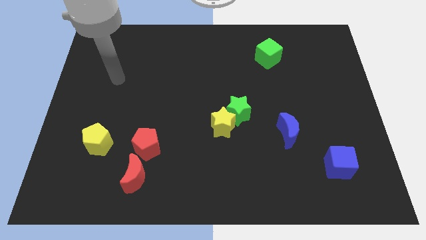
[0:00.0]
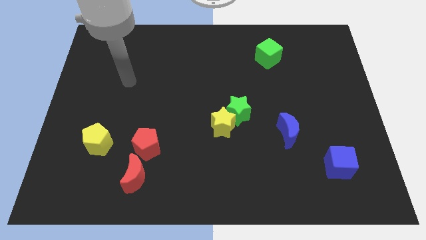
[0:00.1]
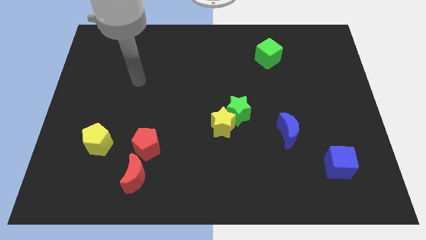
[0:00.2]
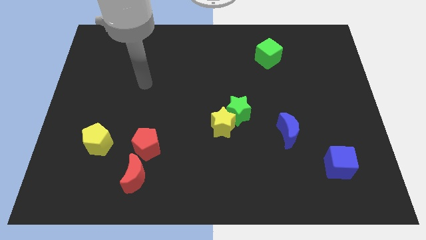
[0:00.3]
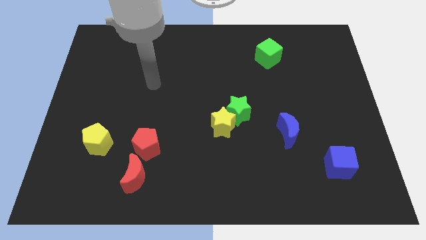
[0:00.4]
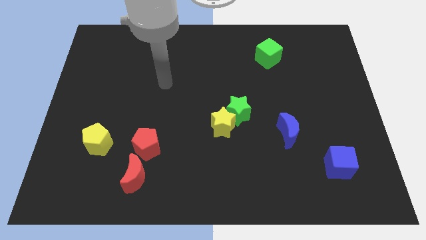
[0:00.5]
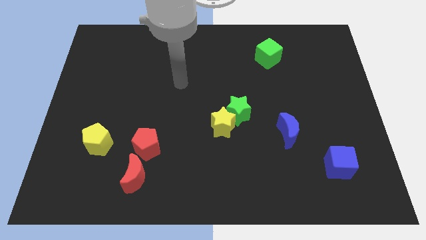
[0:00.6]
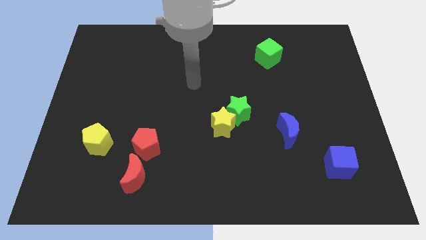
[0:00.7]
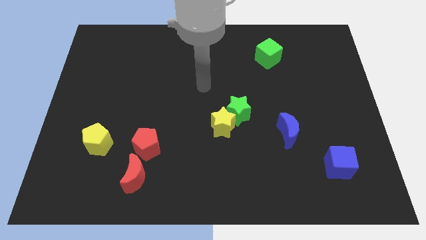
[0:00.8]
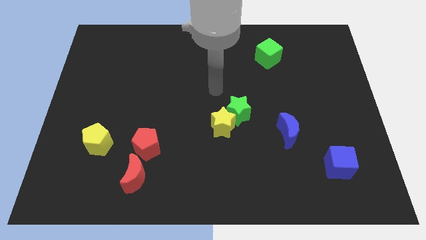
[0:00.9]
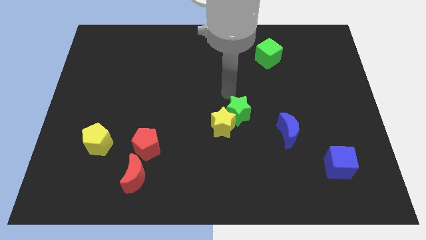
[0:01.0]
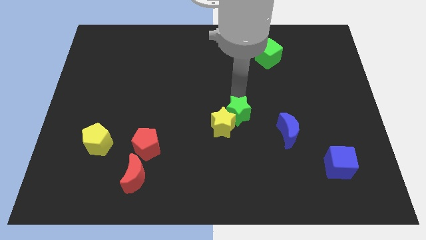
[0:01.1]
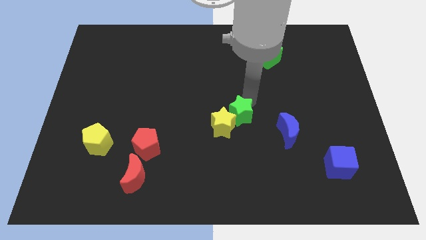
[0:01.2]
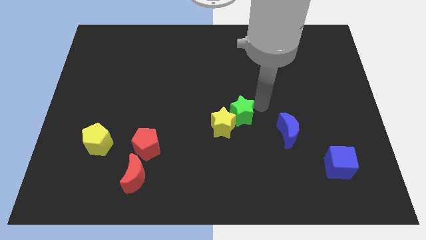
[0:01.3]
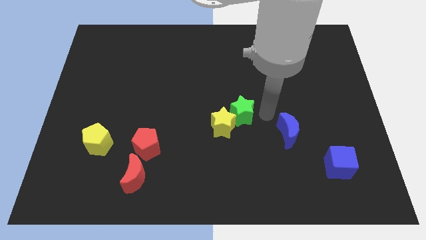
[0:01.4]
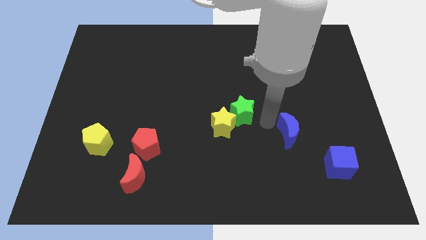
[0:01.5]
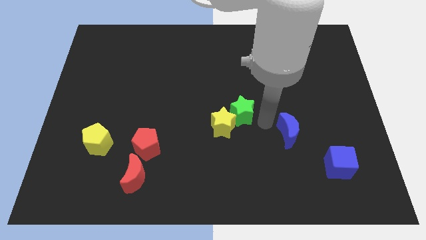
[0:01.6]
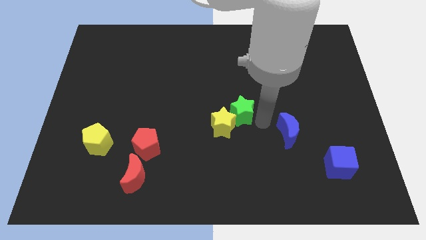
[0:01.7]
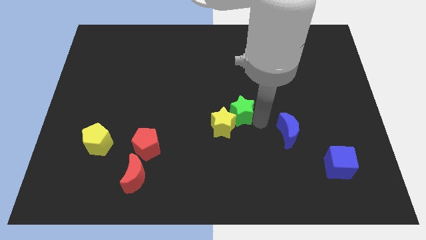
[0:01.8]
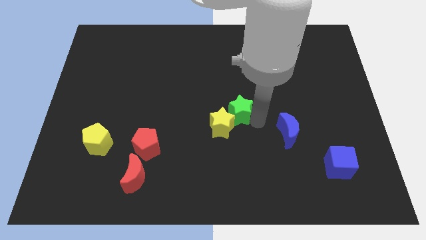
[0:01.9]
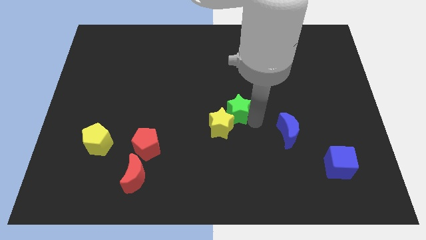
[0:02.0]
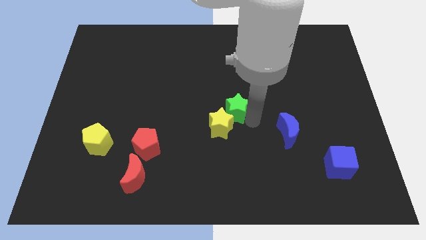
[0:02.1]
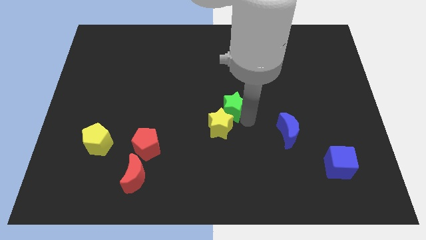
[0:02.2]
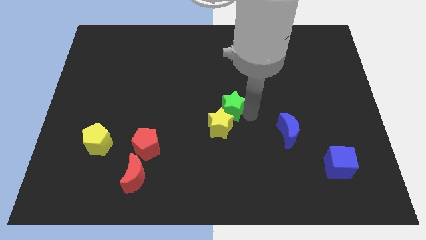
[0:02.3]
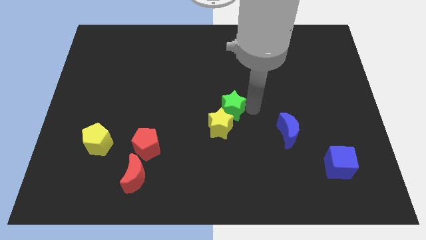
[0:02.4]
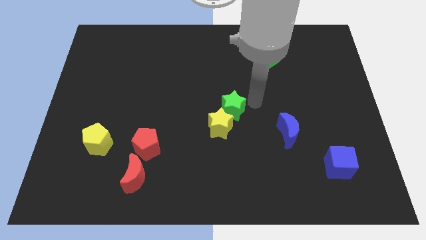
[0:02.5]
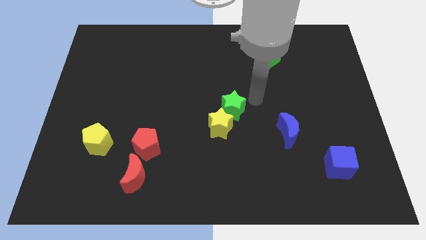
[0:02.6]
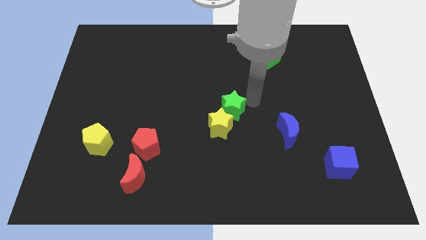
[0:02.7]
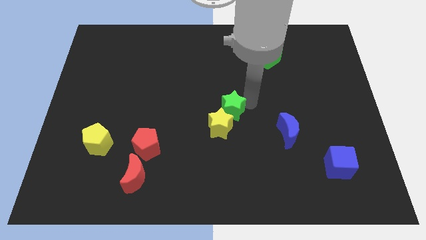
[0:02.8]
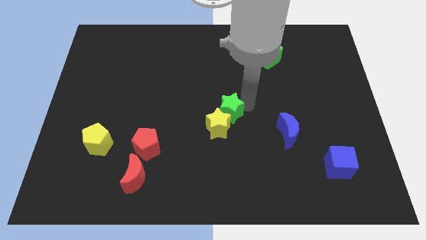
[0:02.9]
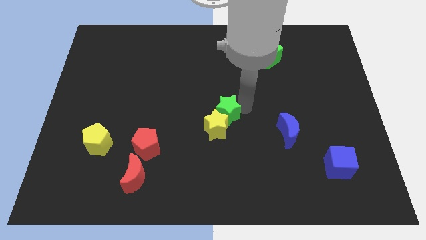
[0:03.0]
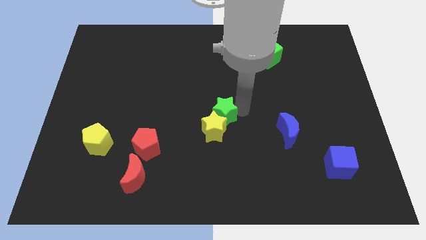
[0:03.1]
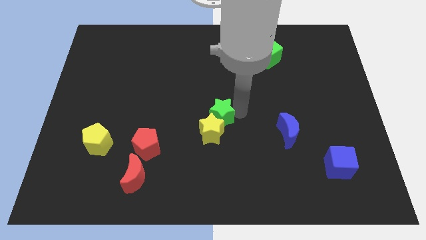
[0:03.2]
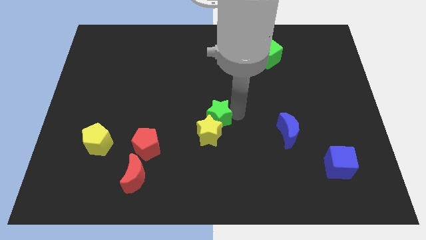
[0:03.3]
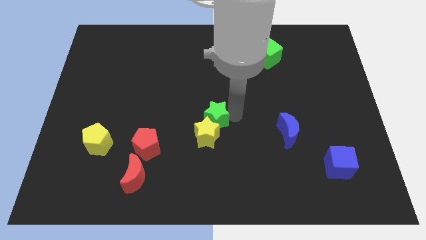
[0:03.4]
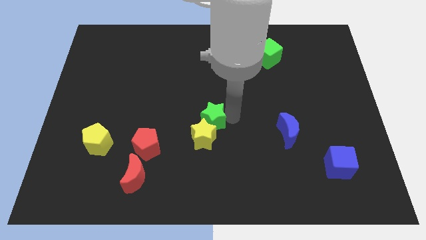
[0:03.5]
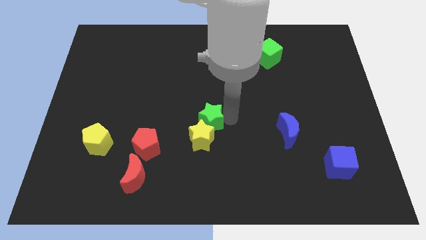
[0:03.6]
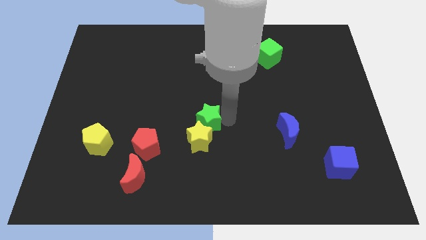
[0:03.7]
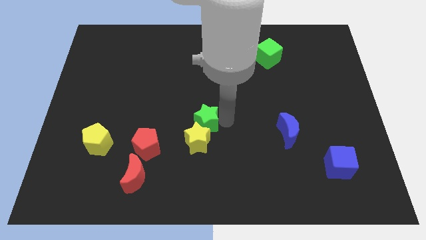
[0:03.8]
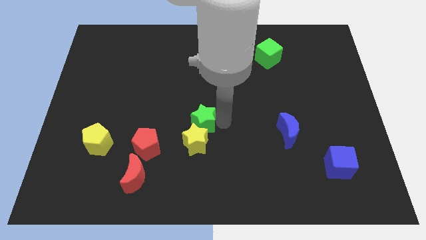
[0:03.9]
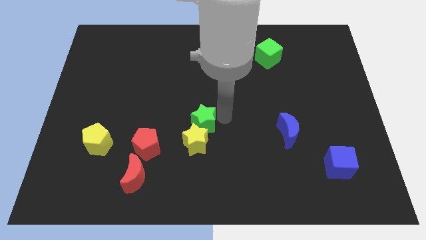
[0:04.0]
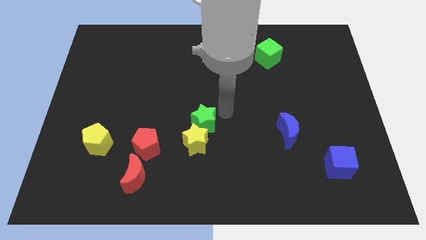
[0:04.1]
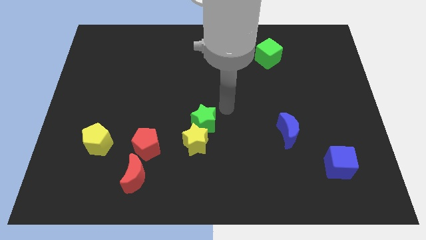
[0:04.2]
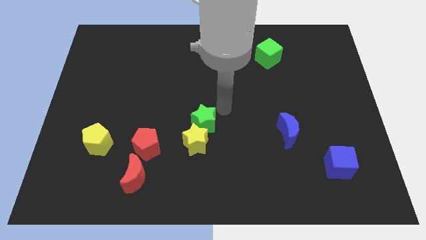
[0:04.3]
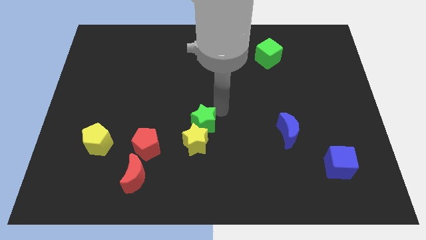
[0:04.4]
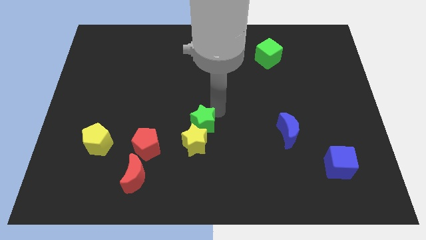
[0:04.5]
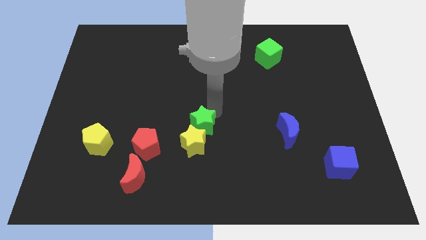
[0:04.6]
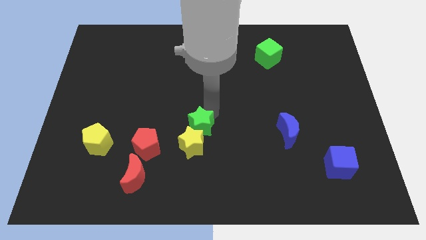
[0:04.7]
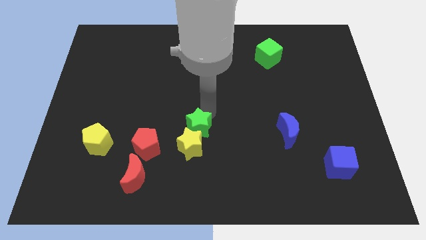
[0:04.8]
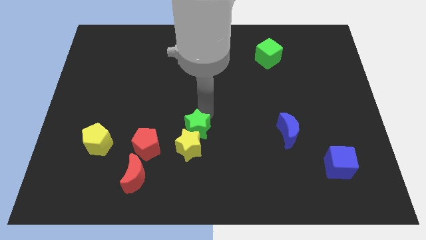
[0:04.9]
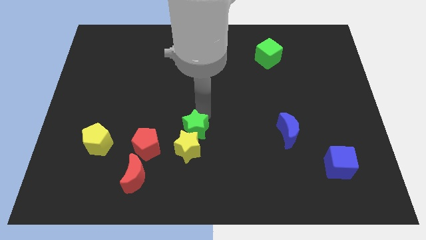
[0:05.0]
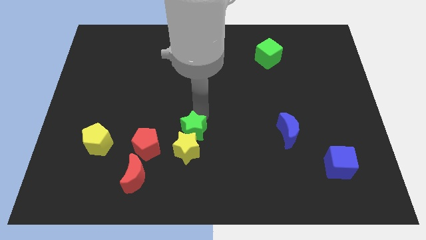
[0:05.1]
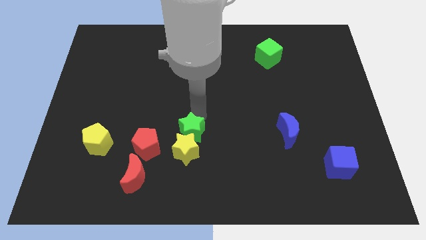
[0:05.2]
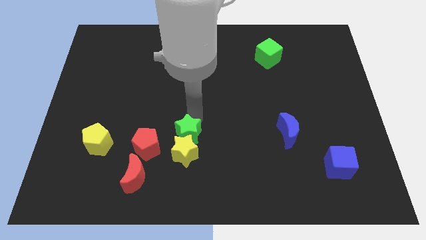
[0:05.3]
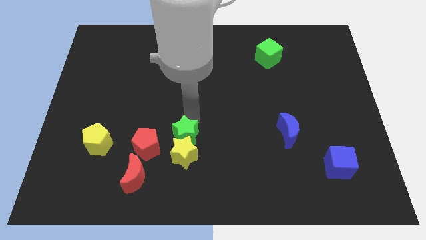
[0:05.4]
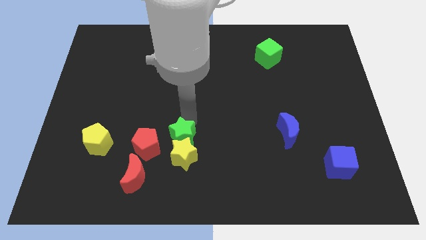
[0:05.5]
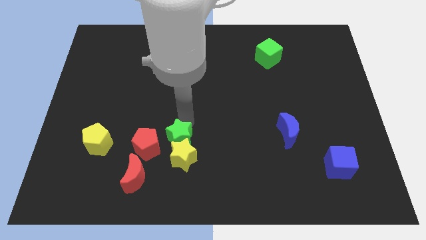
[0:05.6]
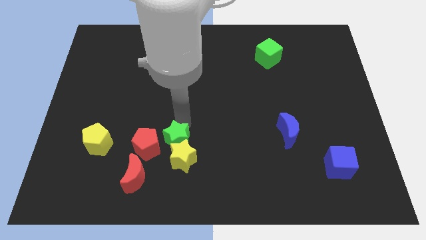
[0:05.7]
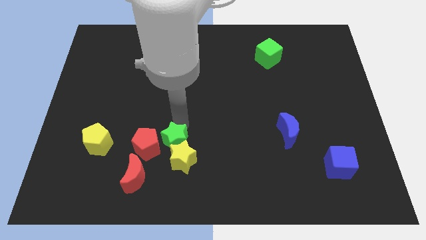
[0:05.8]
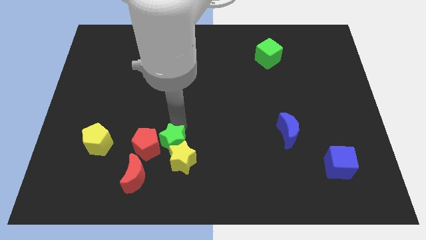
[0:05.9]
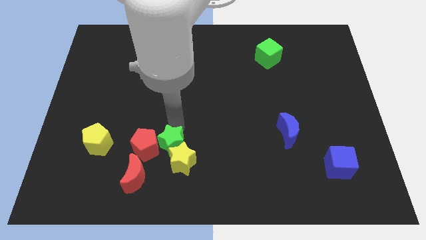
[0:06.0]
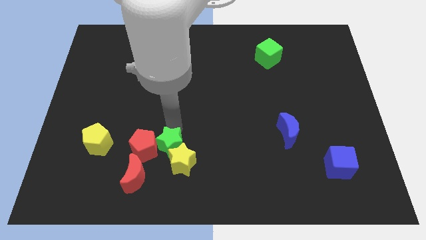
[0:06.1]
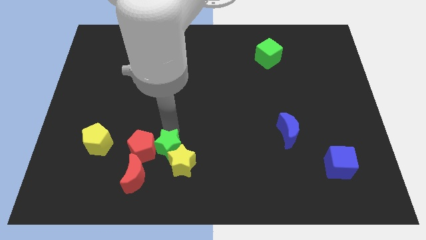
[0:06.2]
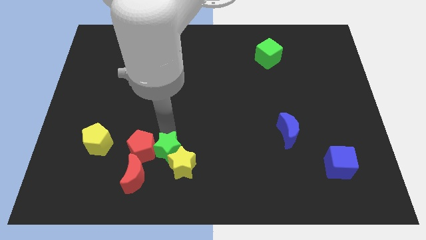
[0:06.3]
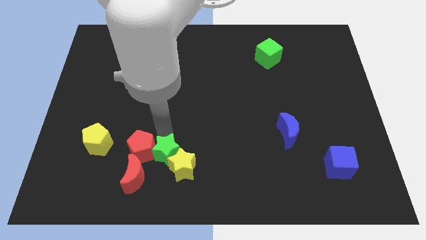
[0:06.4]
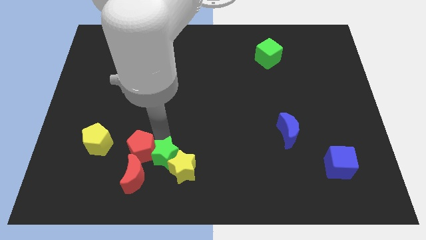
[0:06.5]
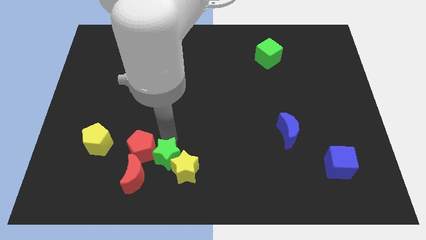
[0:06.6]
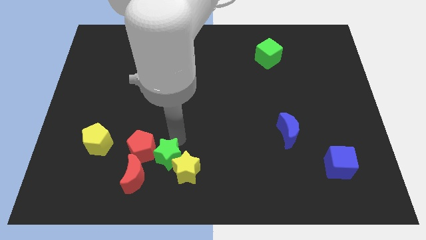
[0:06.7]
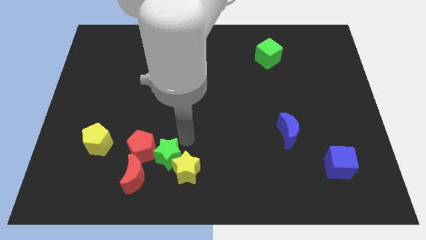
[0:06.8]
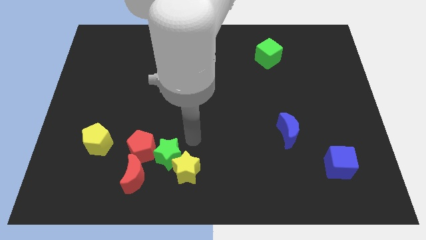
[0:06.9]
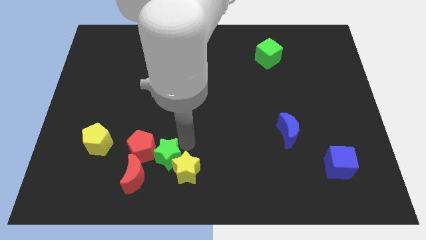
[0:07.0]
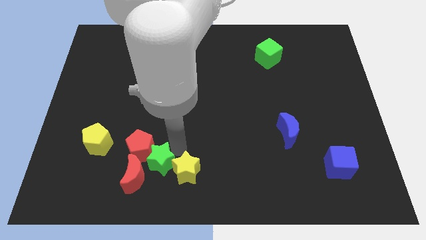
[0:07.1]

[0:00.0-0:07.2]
slide the green star to the red moon
